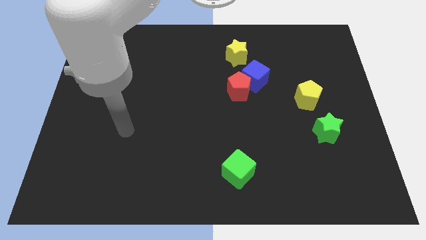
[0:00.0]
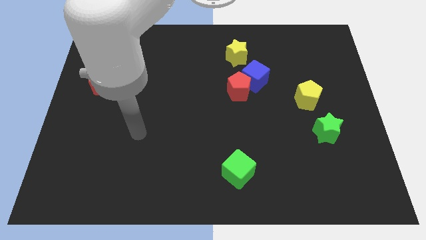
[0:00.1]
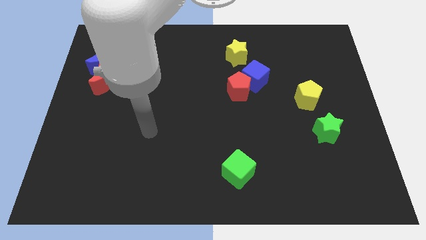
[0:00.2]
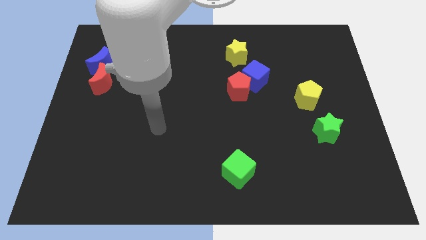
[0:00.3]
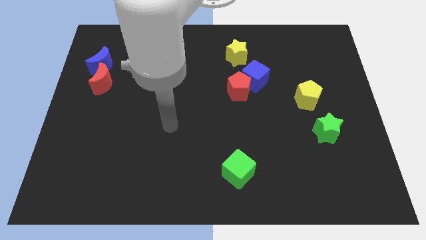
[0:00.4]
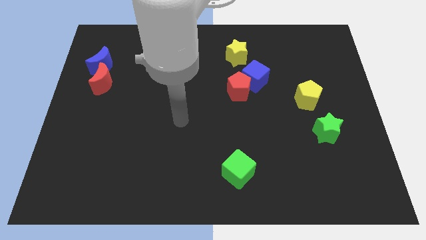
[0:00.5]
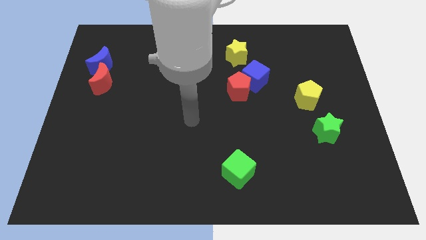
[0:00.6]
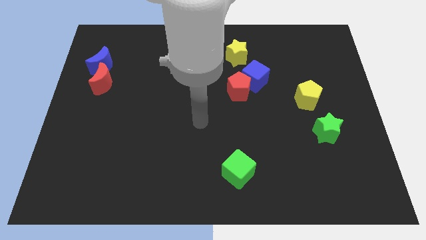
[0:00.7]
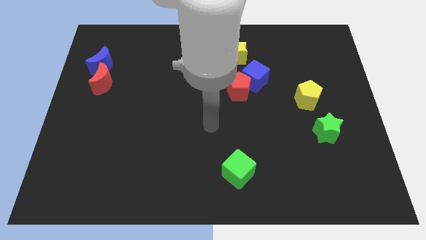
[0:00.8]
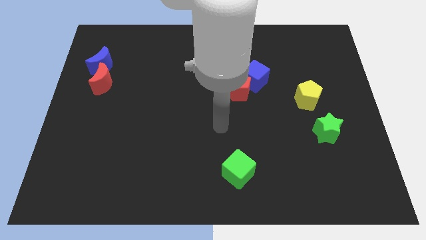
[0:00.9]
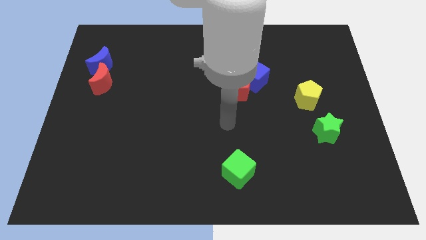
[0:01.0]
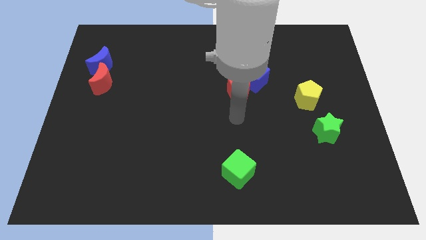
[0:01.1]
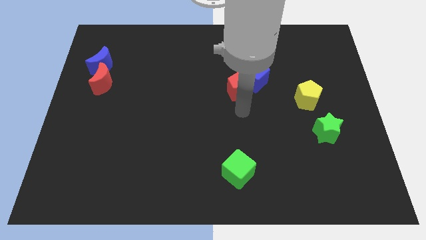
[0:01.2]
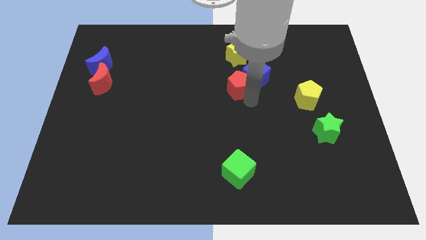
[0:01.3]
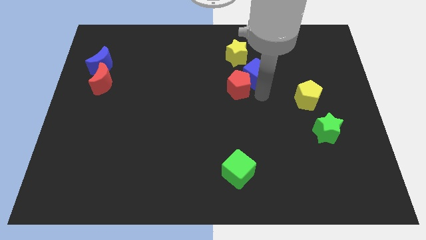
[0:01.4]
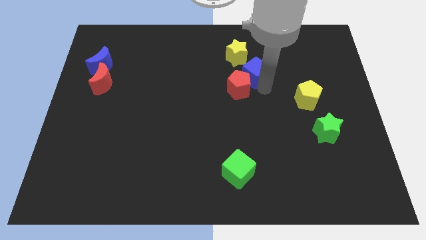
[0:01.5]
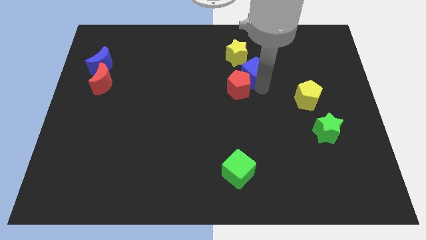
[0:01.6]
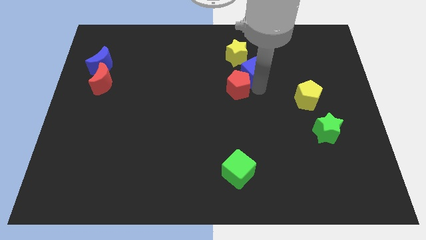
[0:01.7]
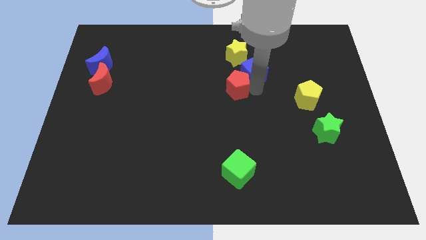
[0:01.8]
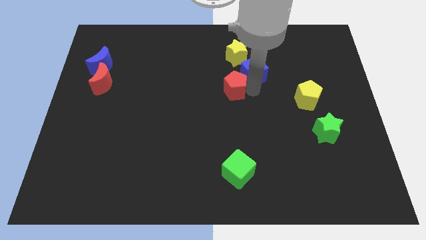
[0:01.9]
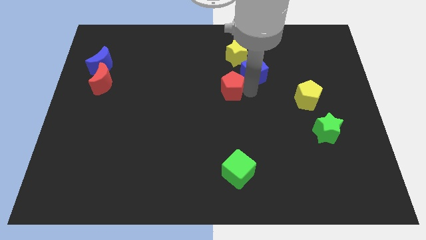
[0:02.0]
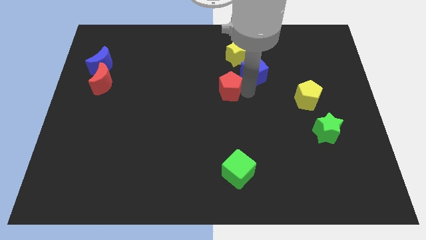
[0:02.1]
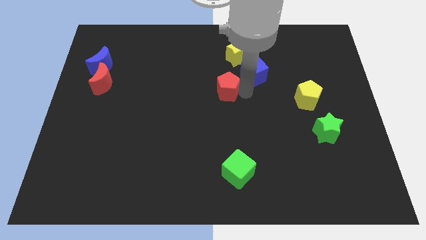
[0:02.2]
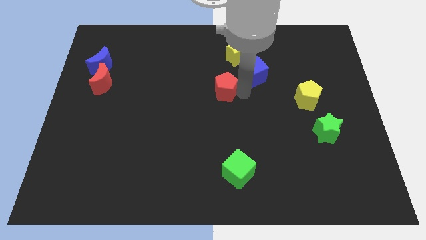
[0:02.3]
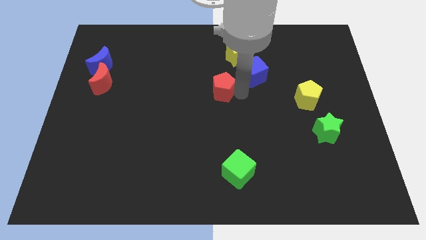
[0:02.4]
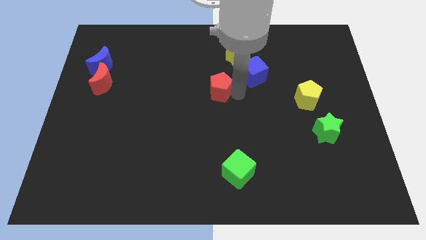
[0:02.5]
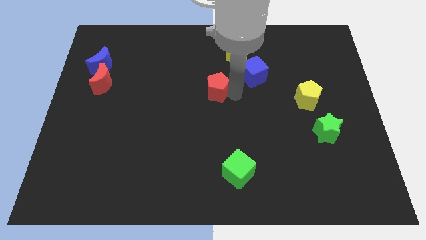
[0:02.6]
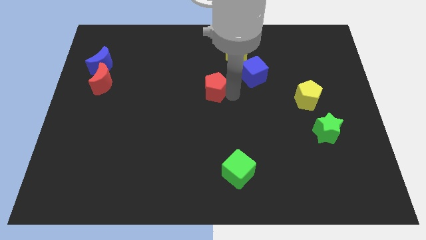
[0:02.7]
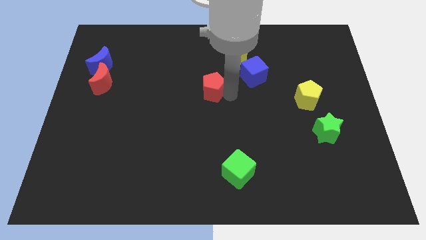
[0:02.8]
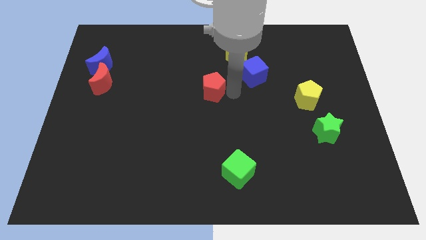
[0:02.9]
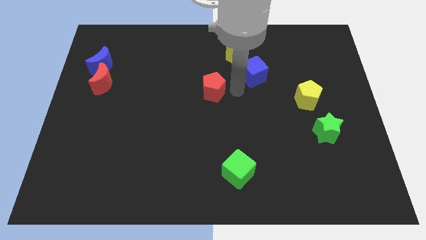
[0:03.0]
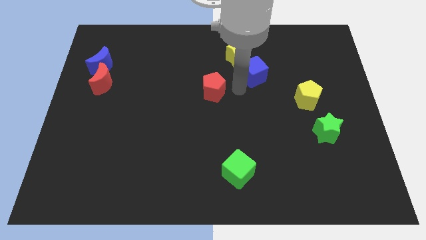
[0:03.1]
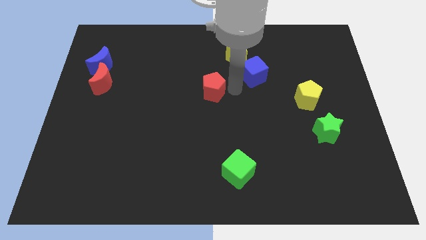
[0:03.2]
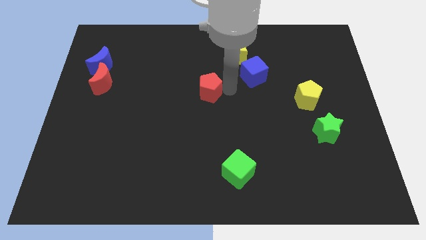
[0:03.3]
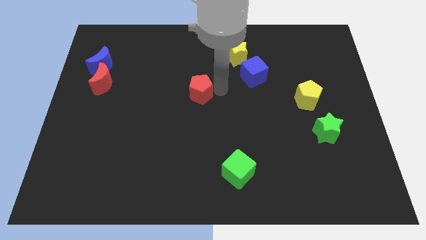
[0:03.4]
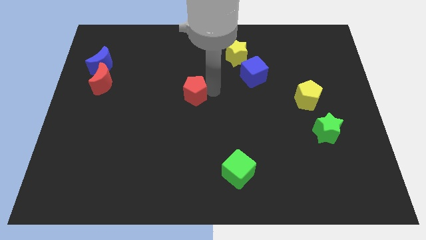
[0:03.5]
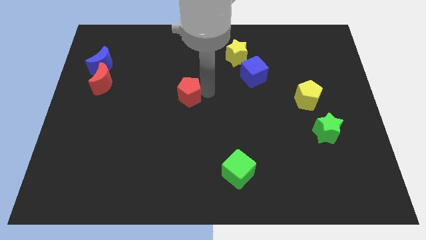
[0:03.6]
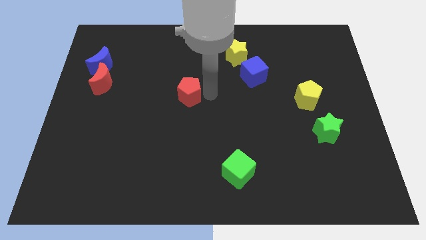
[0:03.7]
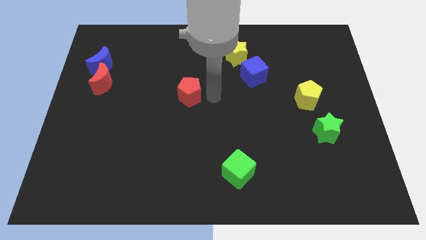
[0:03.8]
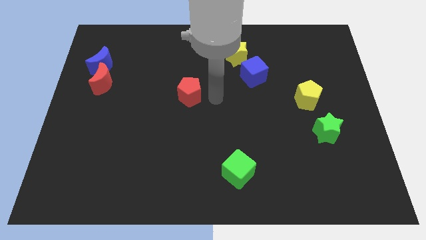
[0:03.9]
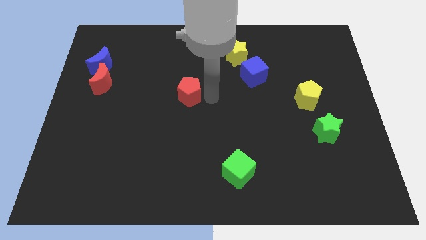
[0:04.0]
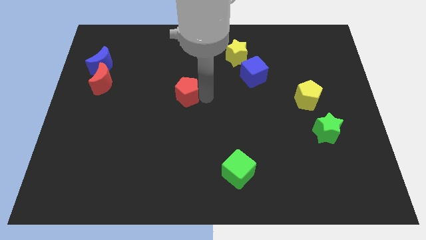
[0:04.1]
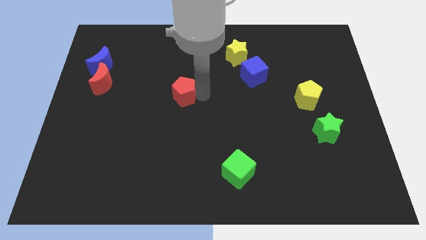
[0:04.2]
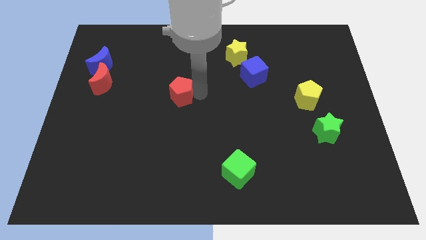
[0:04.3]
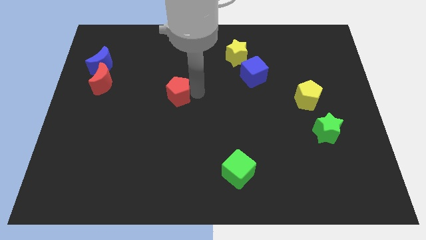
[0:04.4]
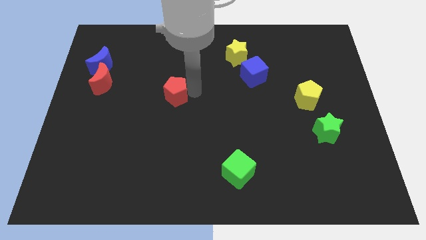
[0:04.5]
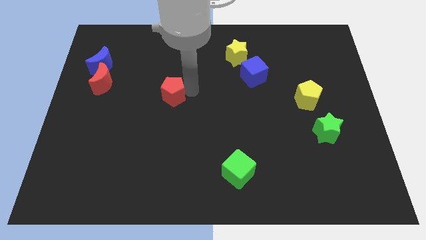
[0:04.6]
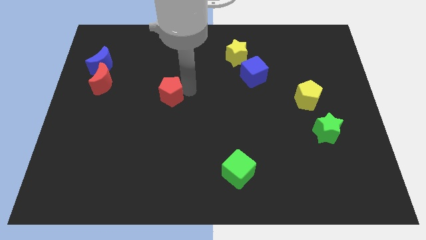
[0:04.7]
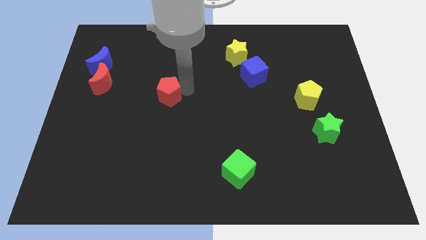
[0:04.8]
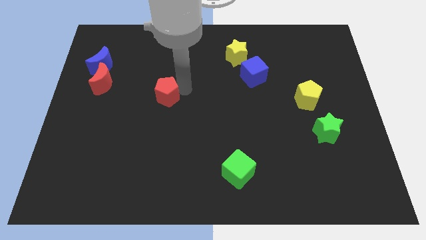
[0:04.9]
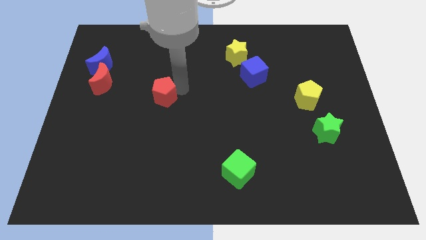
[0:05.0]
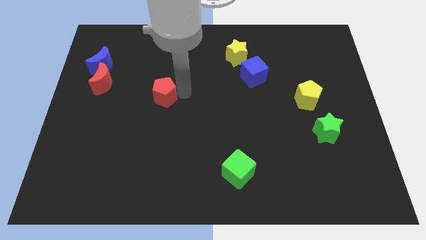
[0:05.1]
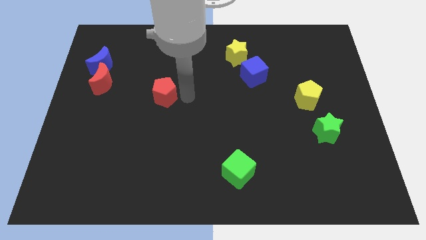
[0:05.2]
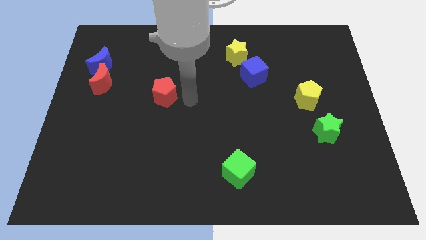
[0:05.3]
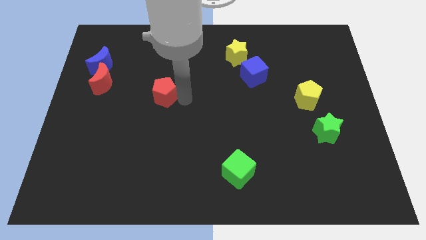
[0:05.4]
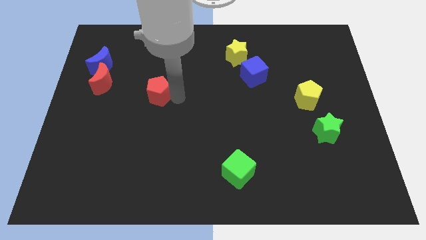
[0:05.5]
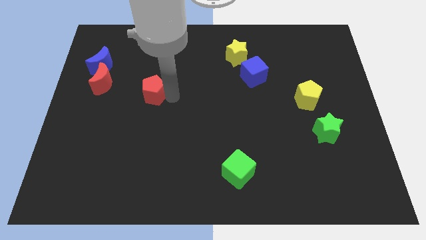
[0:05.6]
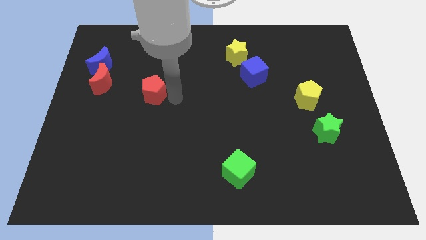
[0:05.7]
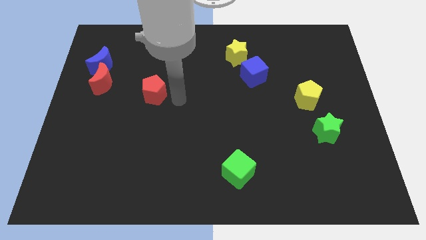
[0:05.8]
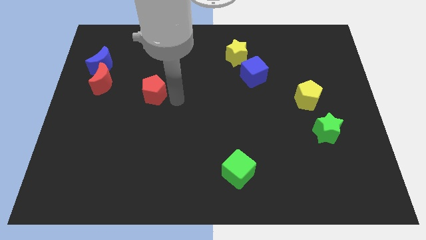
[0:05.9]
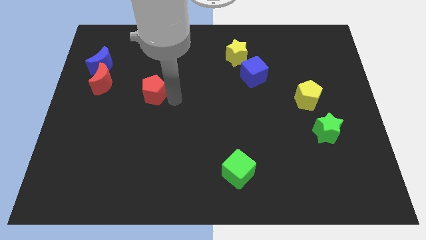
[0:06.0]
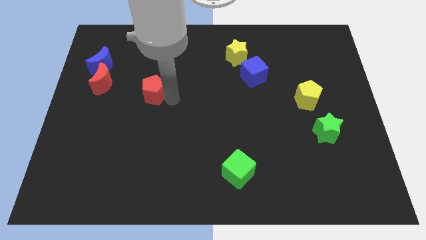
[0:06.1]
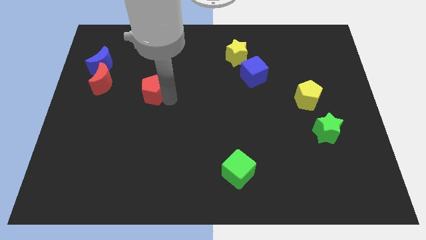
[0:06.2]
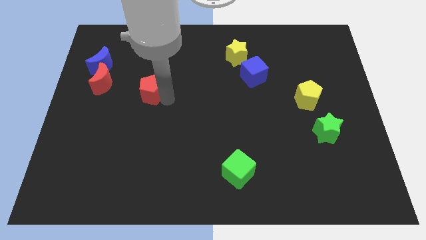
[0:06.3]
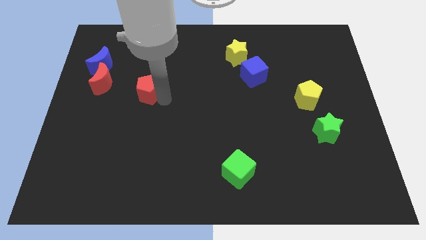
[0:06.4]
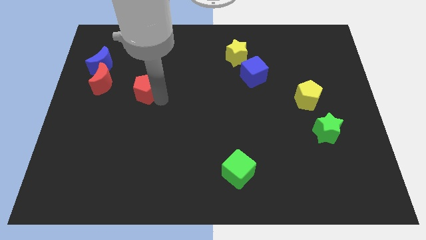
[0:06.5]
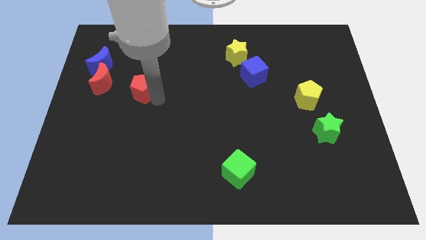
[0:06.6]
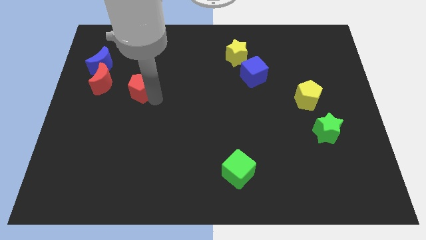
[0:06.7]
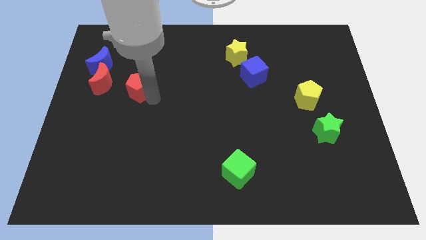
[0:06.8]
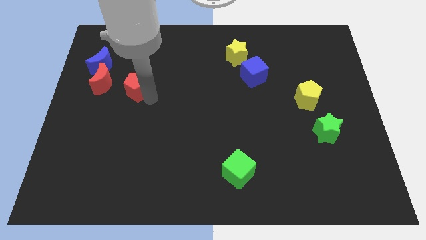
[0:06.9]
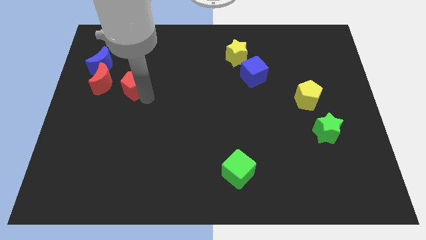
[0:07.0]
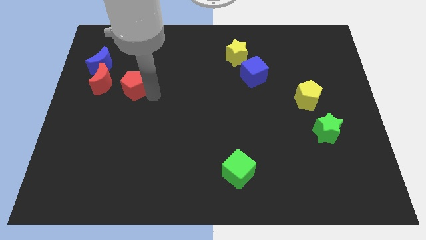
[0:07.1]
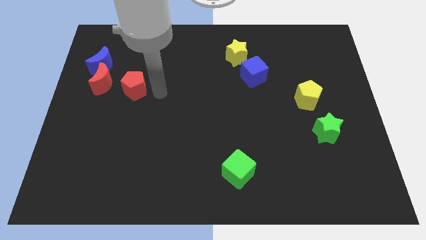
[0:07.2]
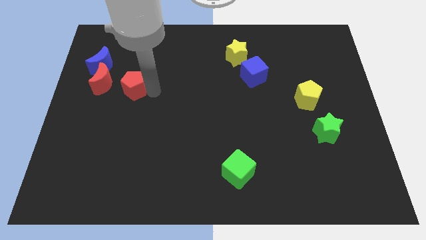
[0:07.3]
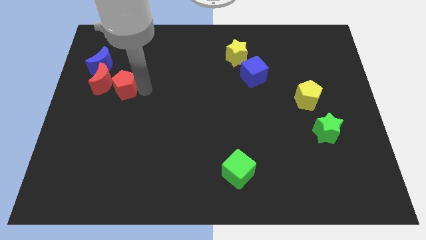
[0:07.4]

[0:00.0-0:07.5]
push the red pentagon towards the red moon
